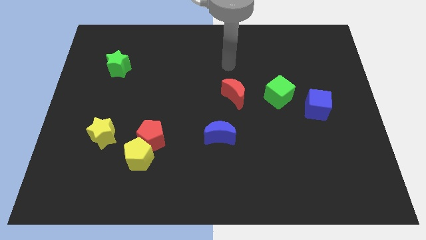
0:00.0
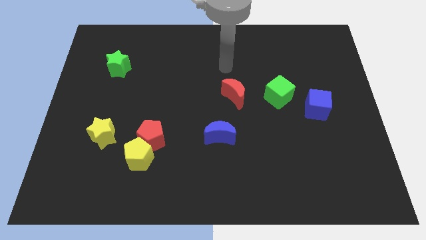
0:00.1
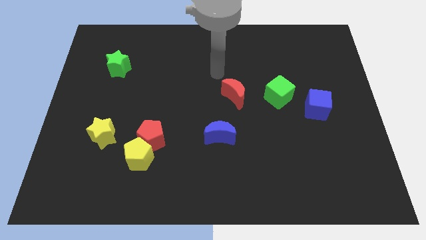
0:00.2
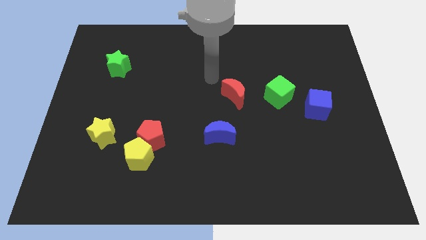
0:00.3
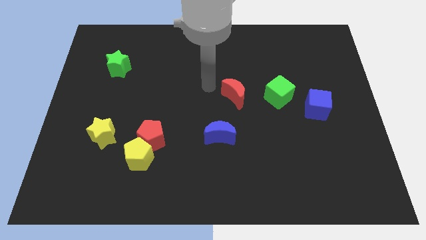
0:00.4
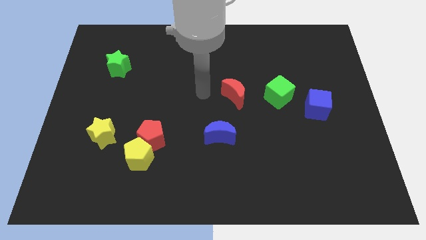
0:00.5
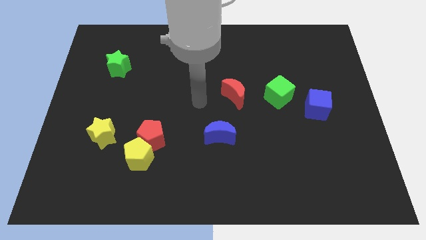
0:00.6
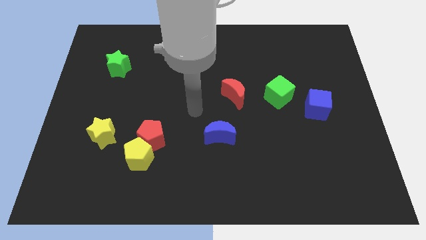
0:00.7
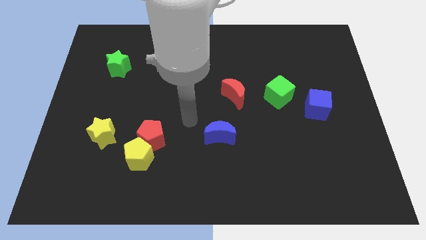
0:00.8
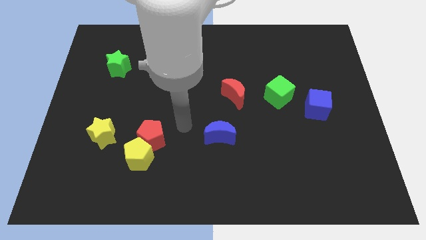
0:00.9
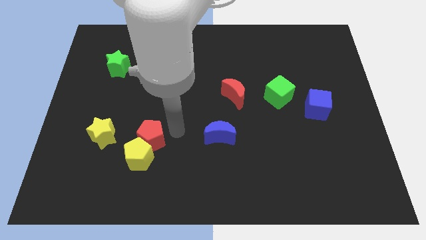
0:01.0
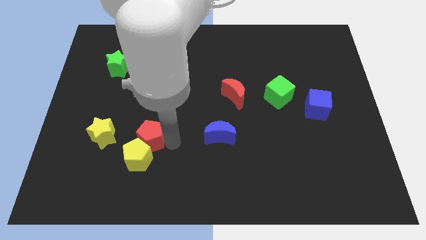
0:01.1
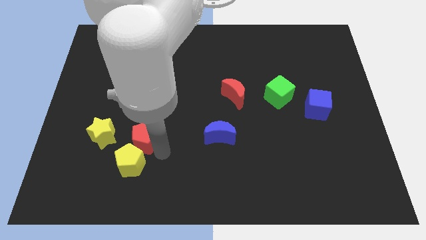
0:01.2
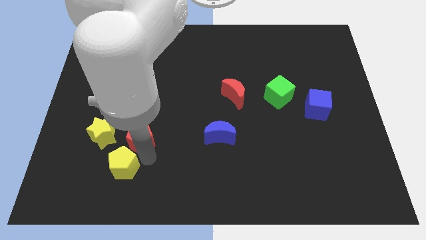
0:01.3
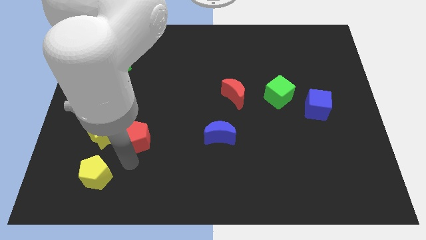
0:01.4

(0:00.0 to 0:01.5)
pull the red pentagon apart from the yellow pentagon

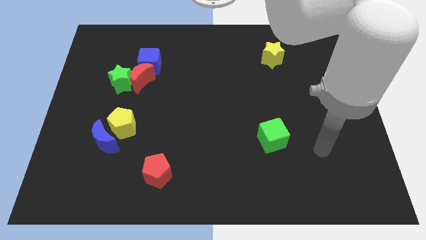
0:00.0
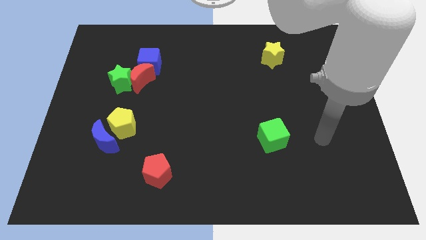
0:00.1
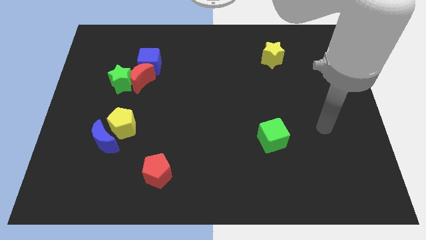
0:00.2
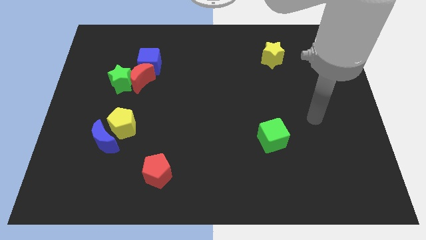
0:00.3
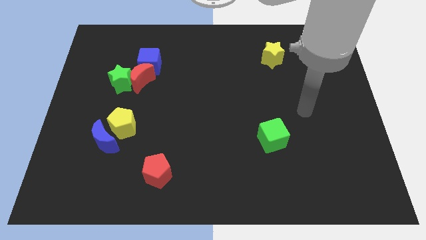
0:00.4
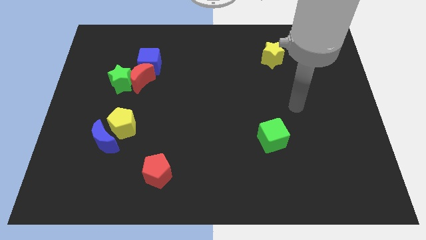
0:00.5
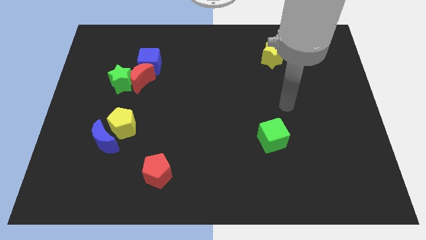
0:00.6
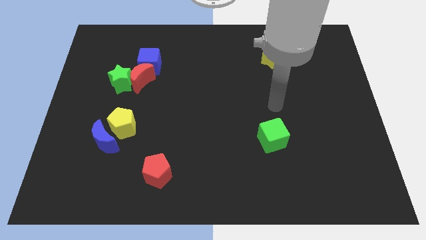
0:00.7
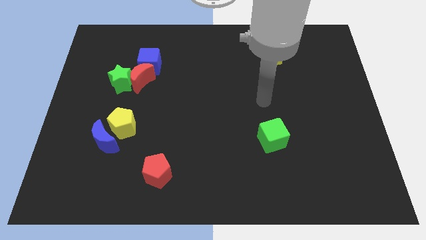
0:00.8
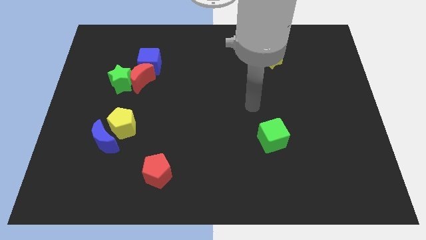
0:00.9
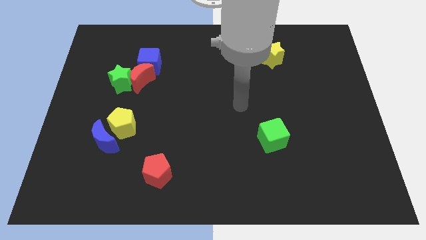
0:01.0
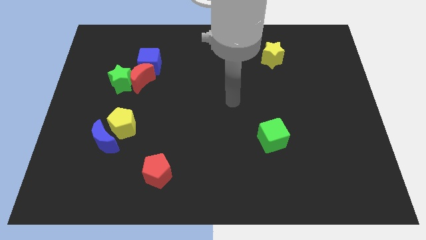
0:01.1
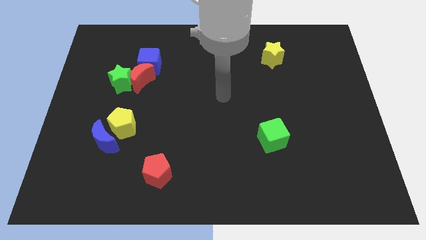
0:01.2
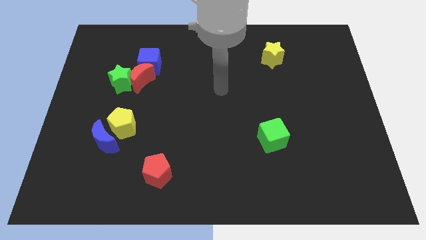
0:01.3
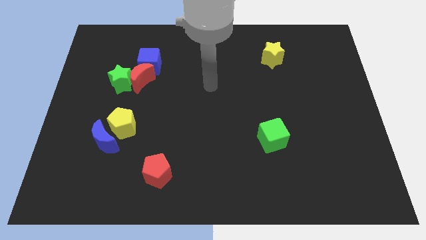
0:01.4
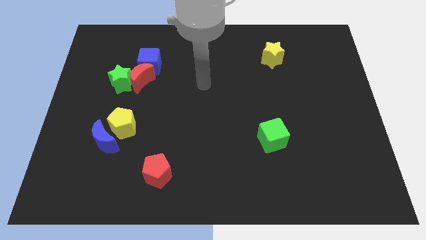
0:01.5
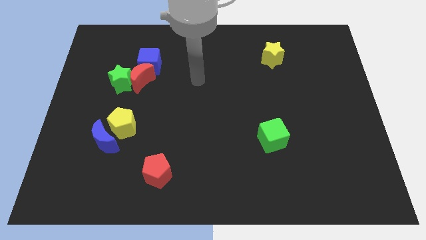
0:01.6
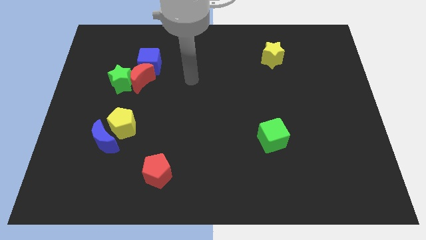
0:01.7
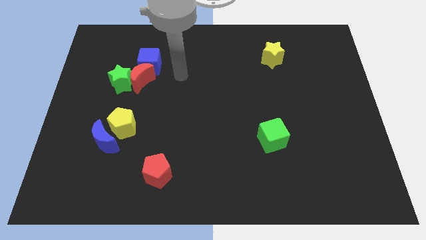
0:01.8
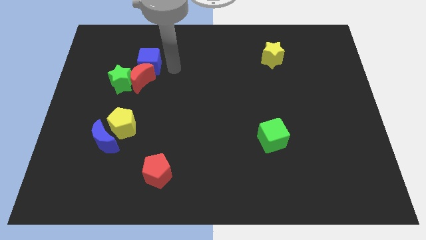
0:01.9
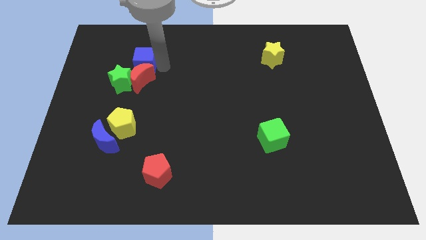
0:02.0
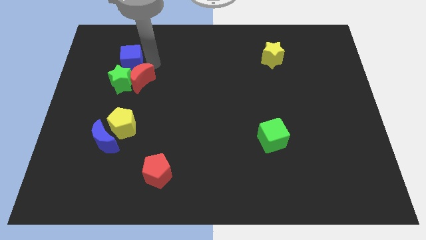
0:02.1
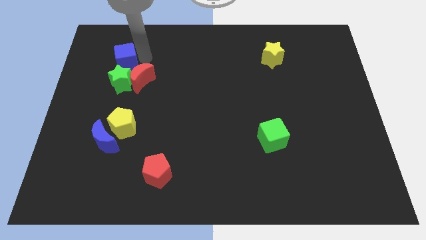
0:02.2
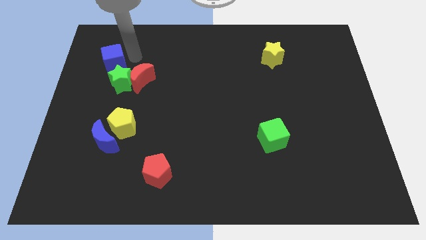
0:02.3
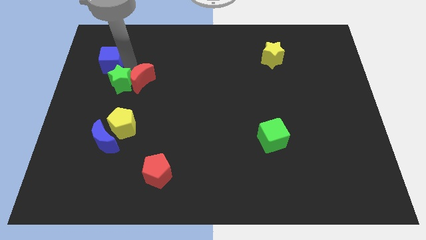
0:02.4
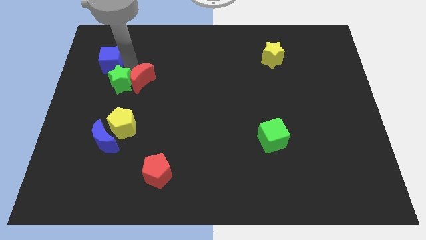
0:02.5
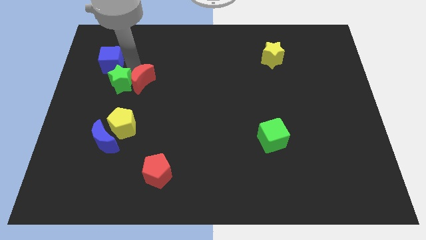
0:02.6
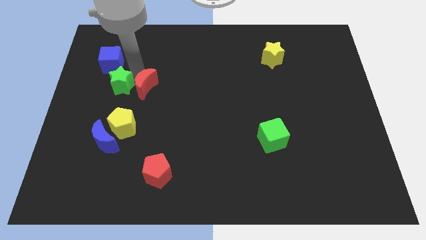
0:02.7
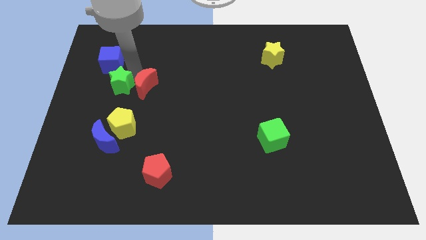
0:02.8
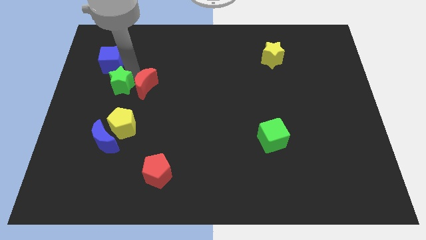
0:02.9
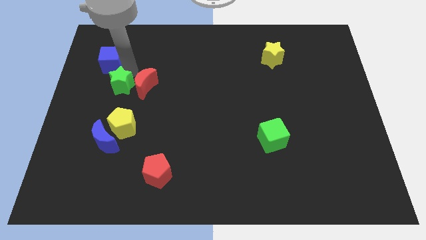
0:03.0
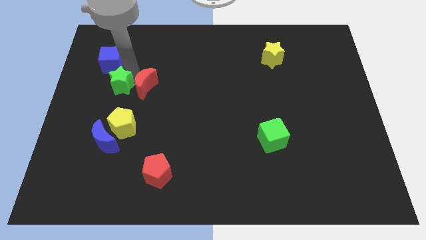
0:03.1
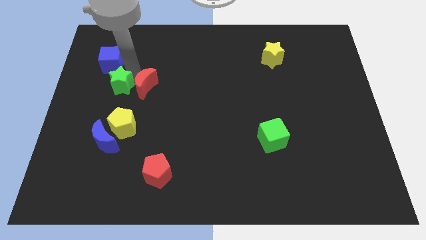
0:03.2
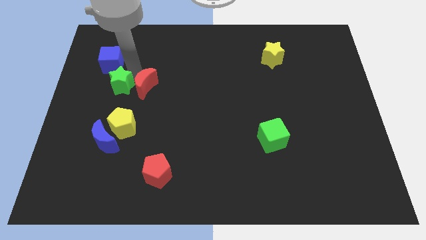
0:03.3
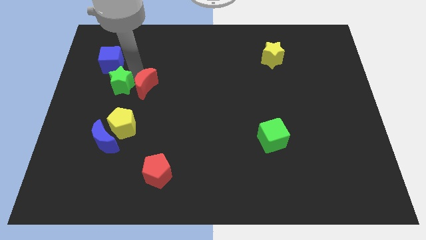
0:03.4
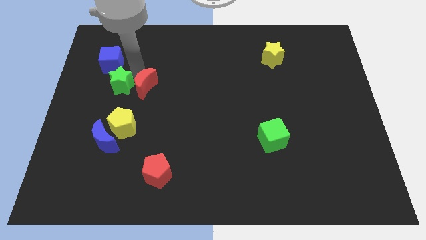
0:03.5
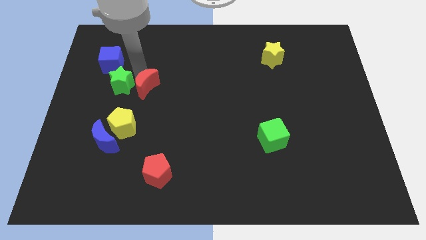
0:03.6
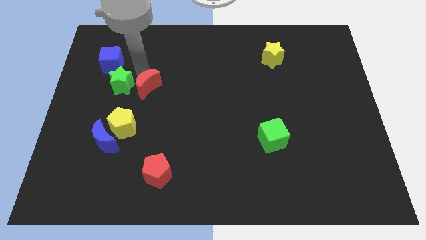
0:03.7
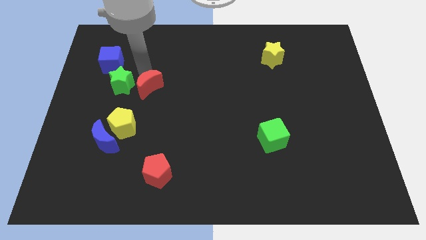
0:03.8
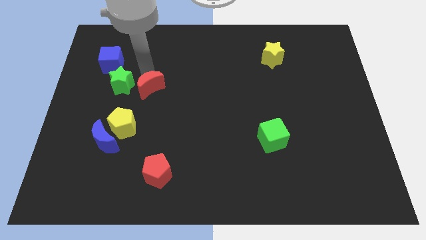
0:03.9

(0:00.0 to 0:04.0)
move the red moon away from the green star and blue cube

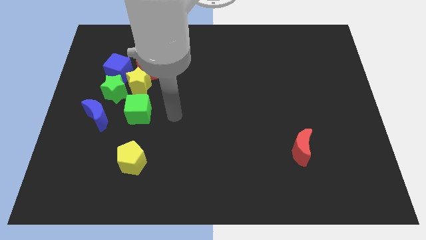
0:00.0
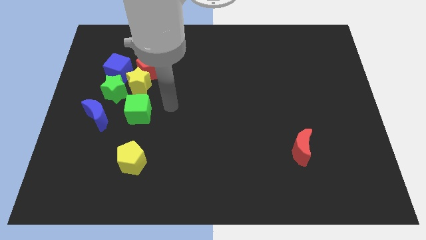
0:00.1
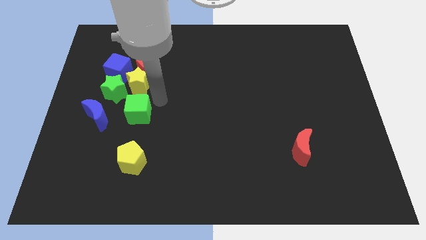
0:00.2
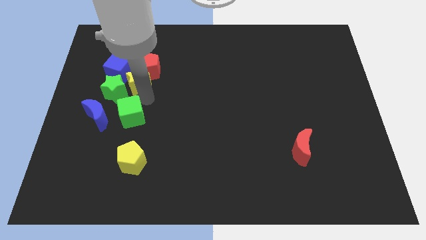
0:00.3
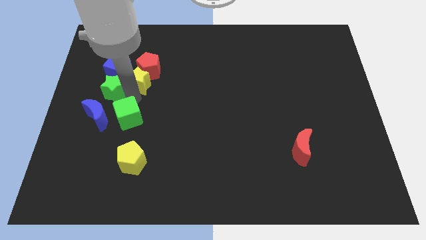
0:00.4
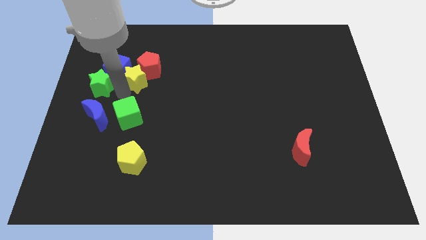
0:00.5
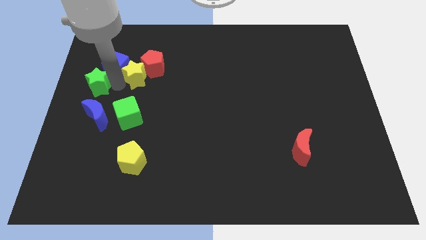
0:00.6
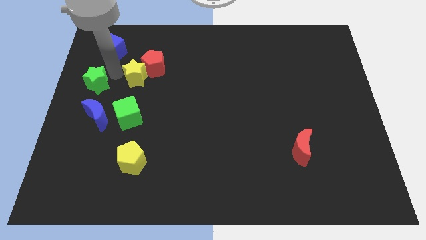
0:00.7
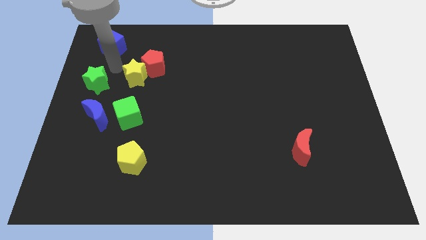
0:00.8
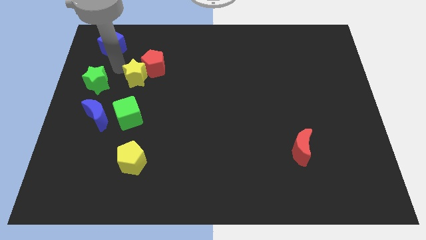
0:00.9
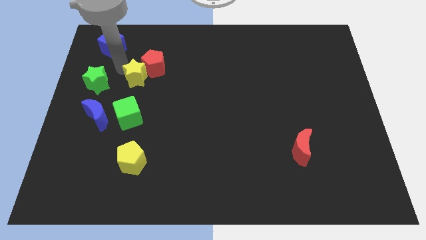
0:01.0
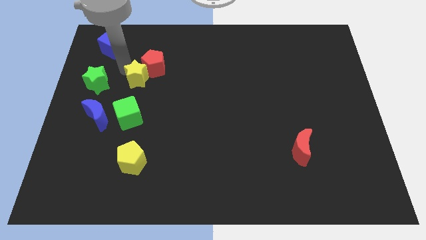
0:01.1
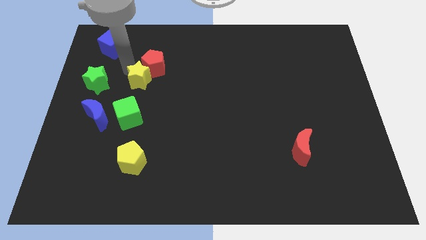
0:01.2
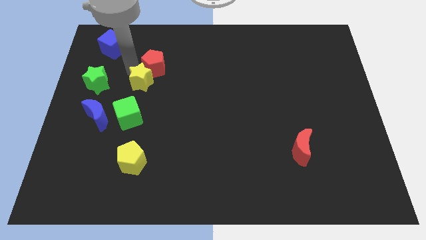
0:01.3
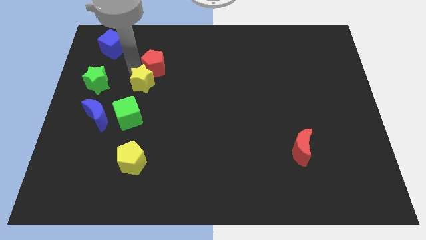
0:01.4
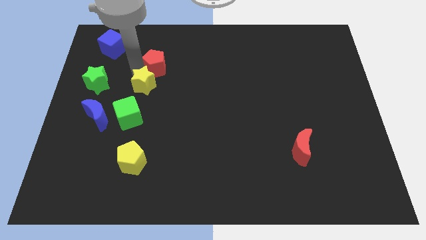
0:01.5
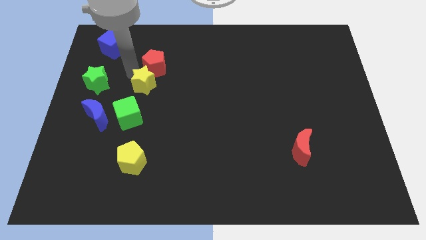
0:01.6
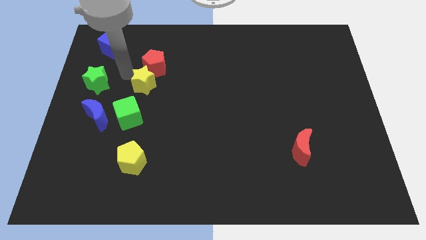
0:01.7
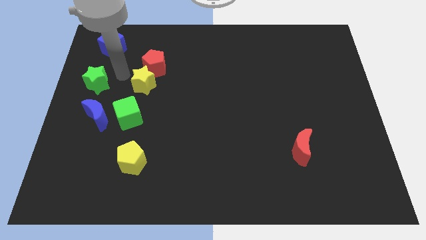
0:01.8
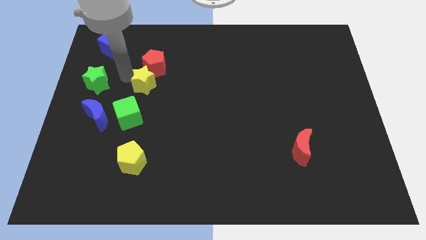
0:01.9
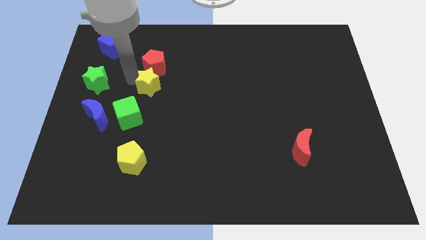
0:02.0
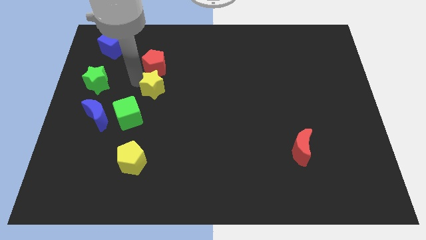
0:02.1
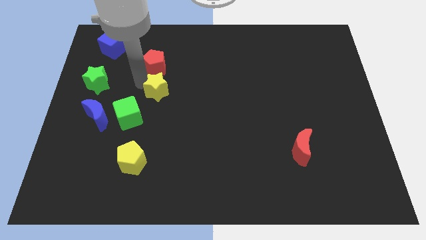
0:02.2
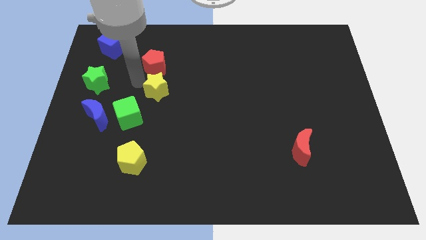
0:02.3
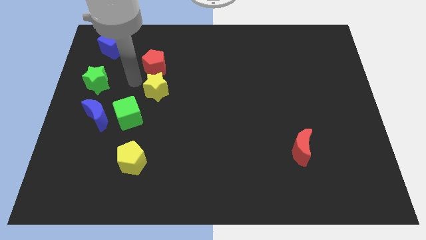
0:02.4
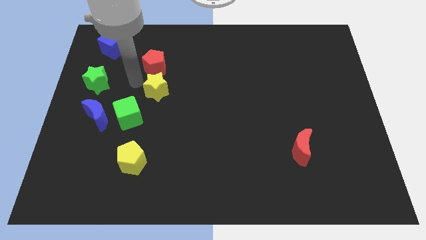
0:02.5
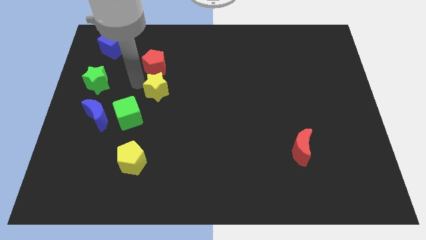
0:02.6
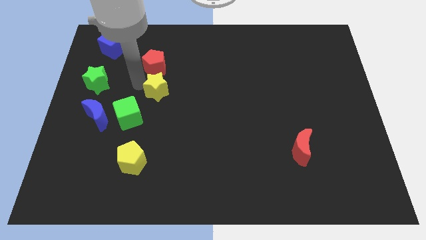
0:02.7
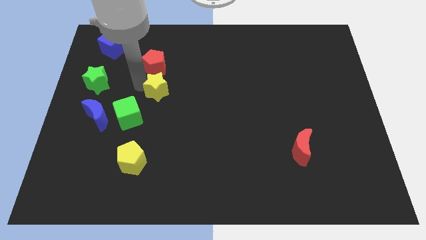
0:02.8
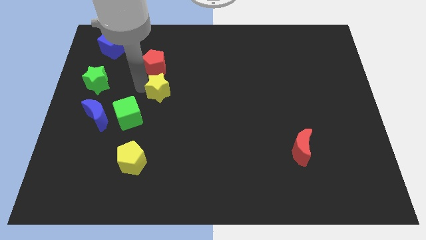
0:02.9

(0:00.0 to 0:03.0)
pull the yellow star apart from the clump

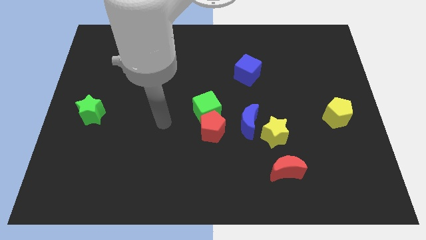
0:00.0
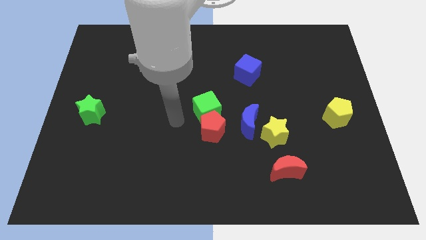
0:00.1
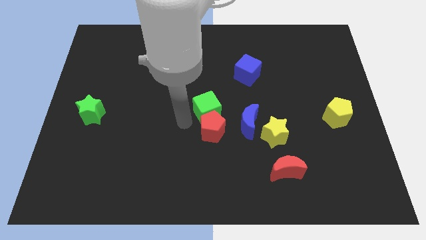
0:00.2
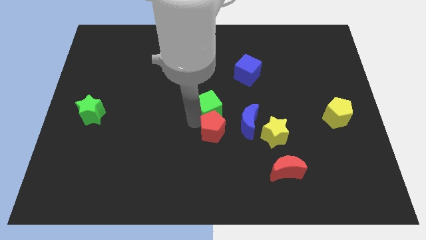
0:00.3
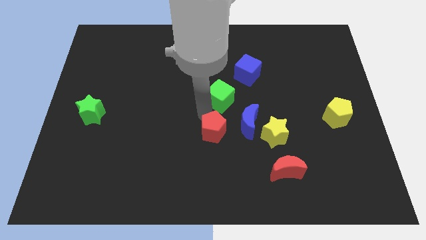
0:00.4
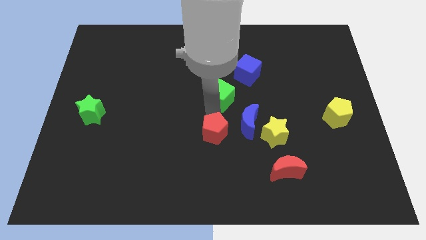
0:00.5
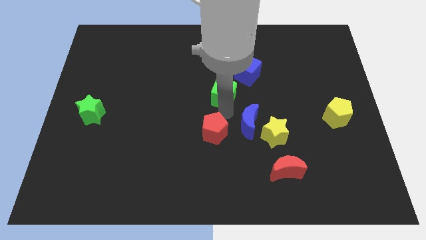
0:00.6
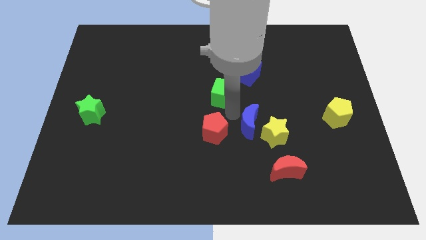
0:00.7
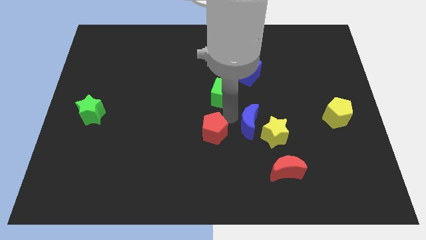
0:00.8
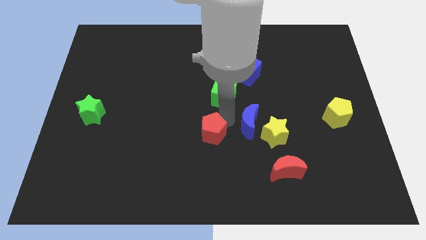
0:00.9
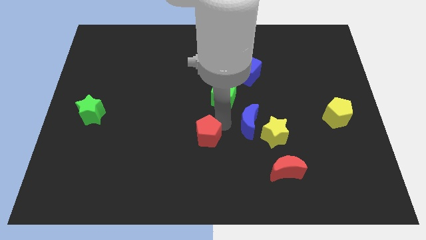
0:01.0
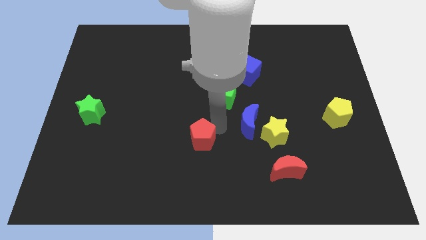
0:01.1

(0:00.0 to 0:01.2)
separate the red pentagon from the green cube and blue moon
